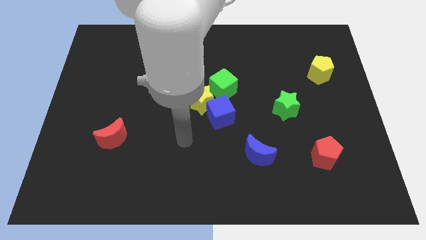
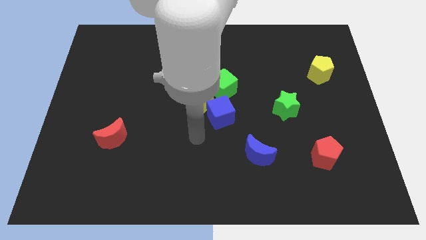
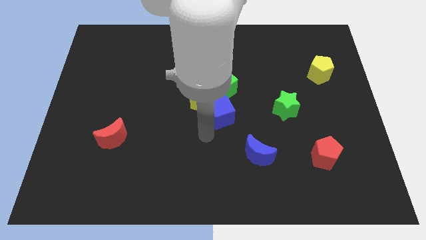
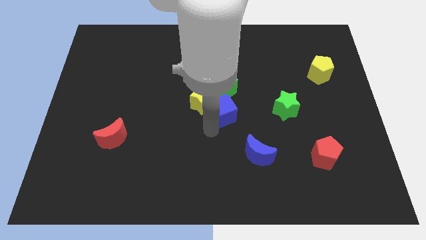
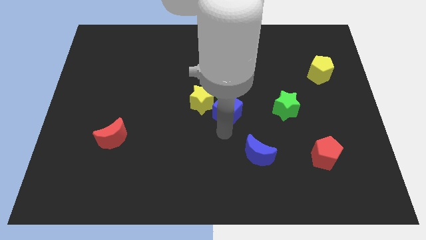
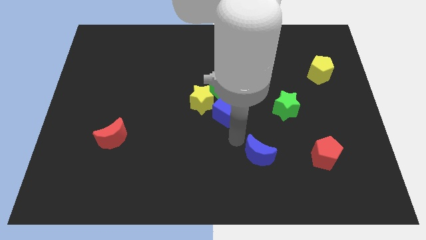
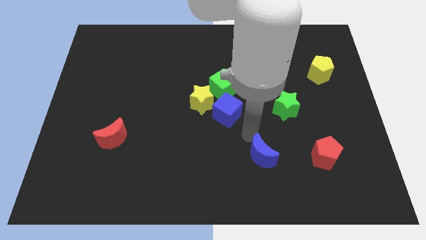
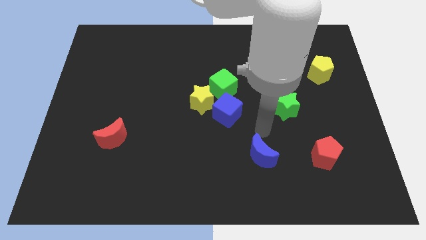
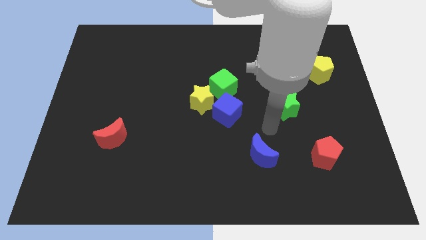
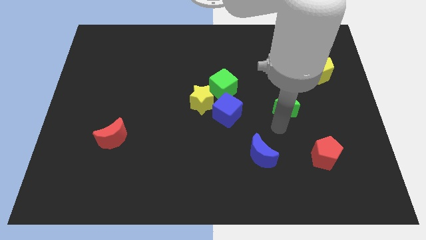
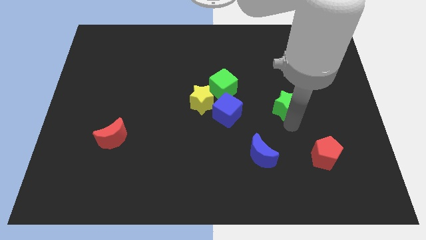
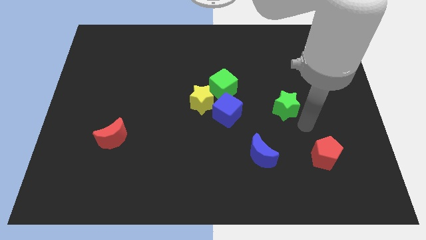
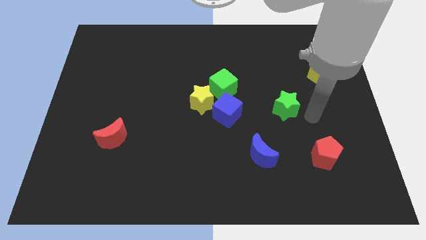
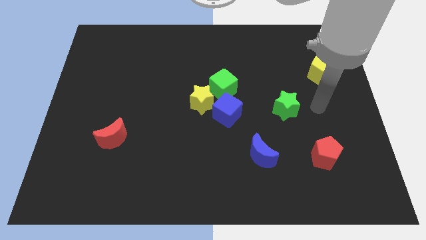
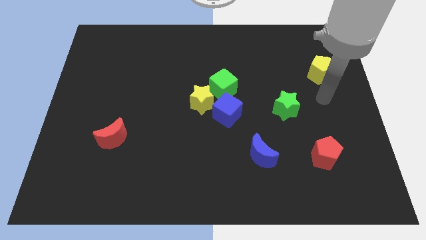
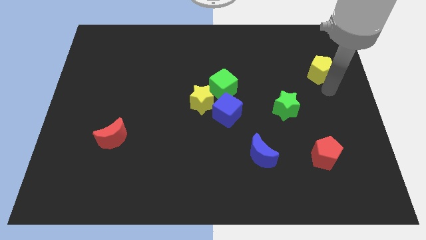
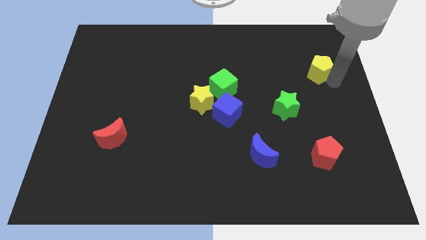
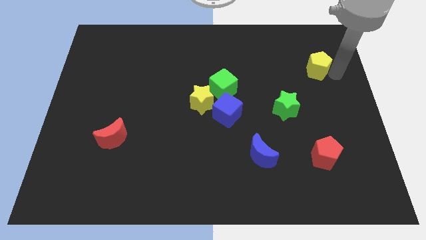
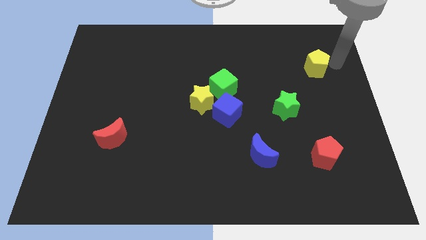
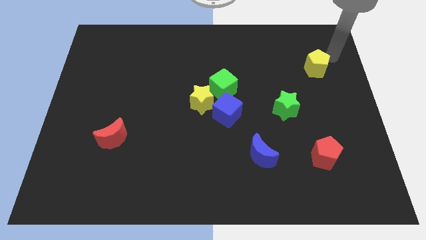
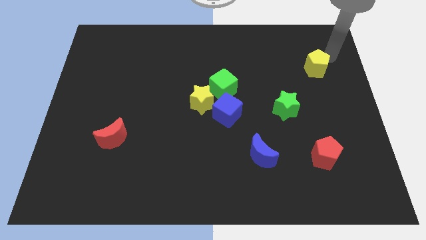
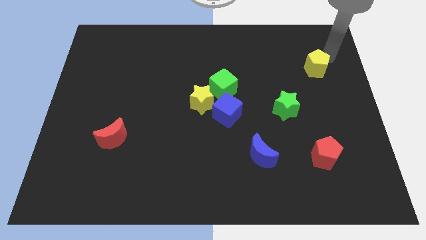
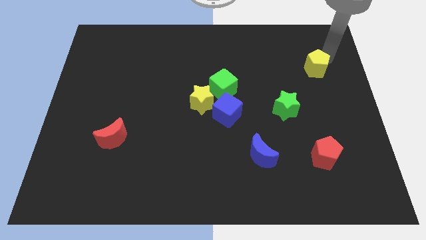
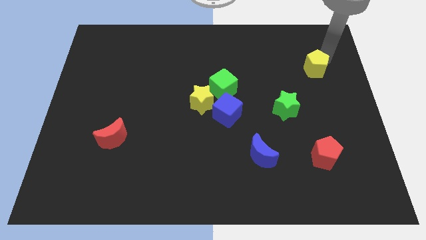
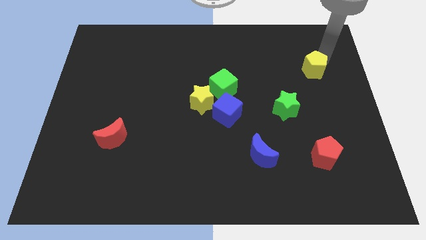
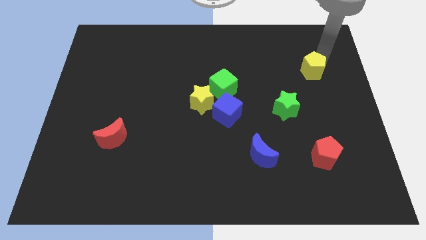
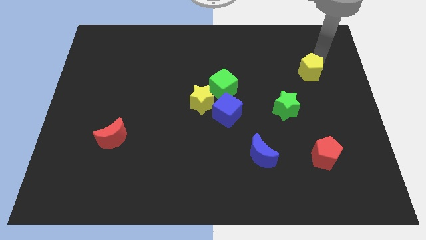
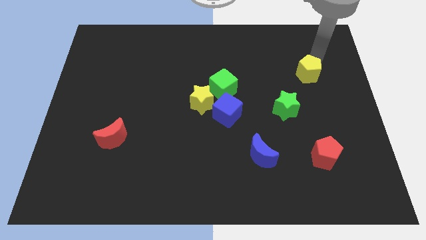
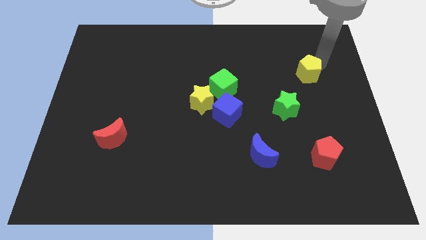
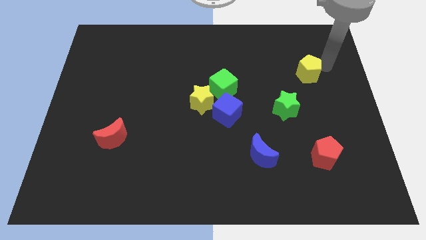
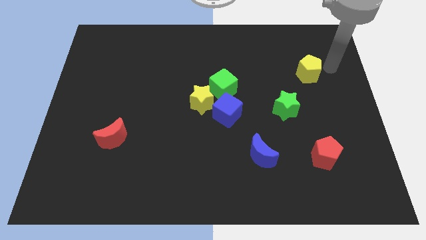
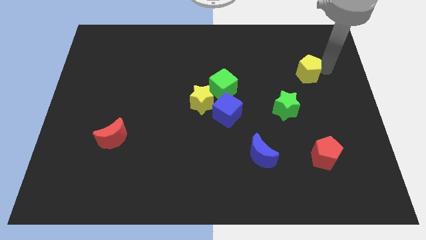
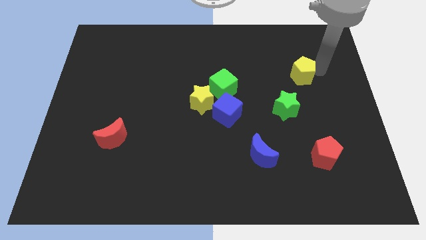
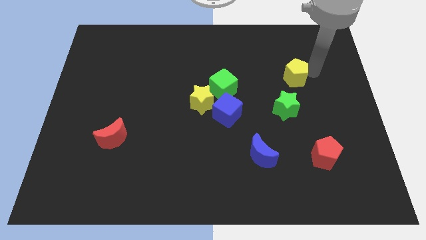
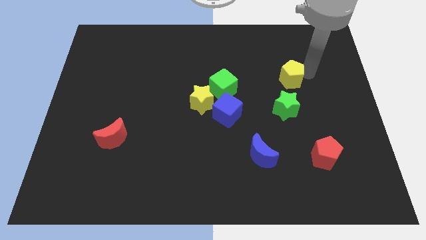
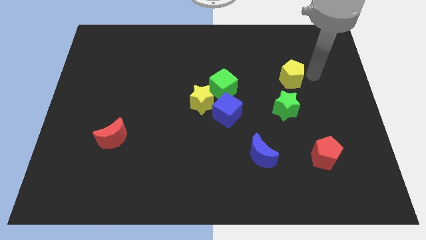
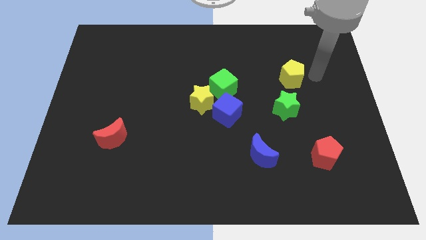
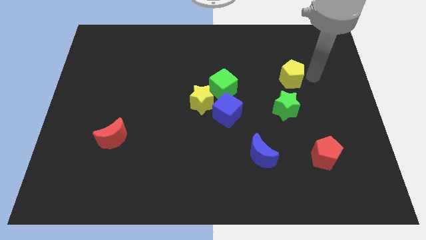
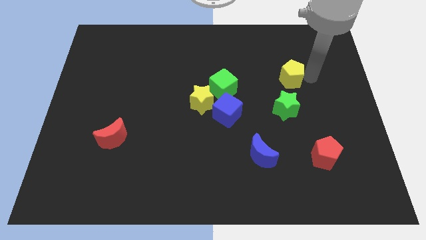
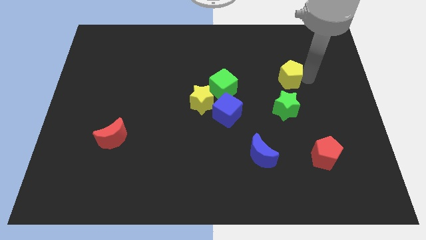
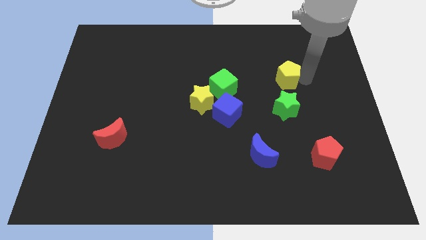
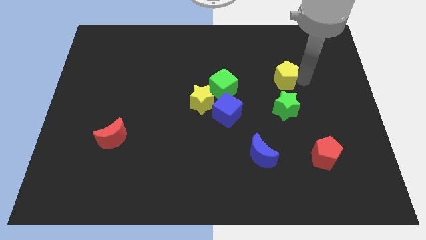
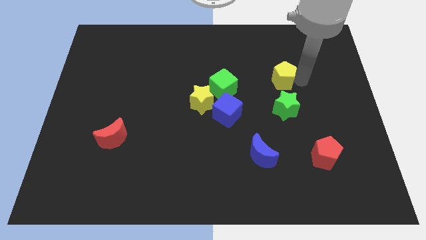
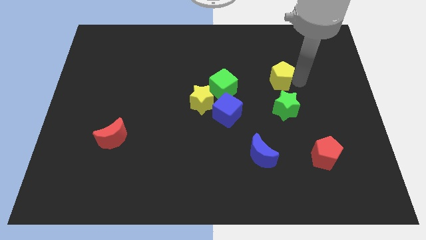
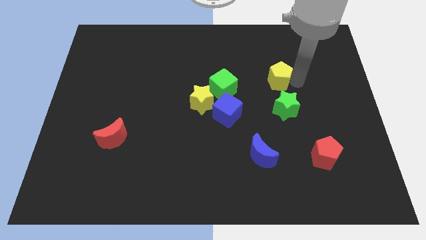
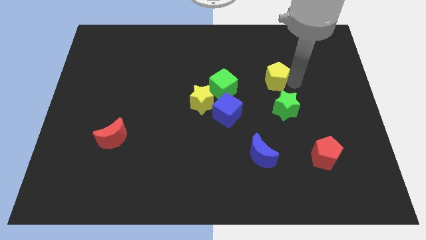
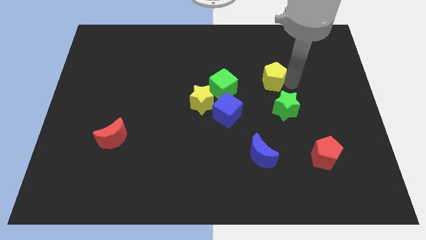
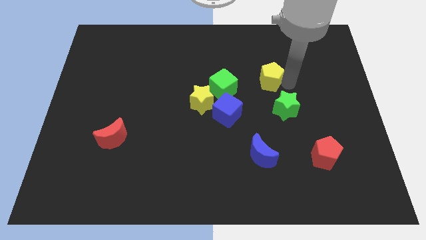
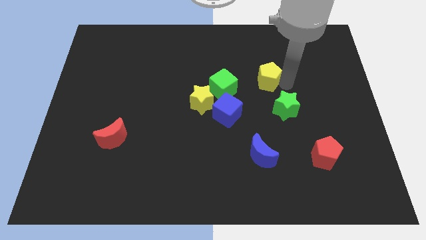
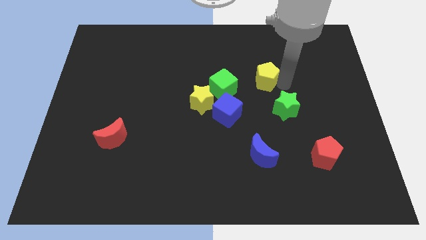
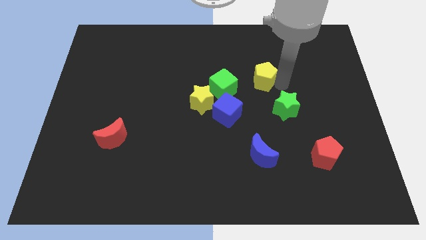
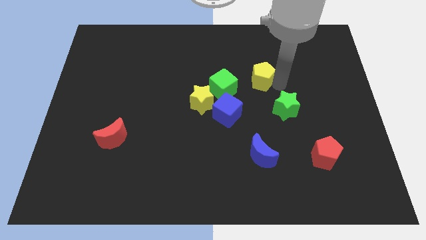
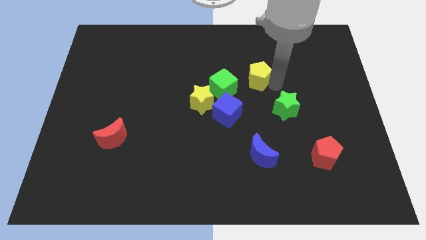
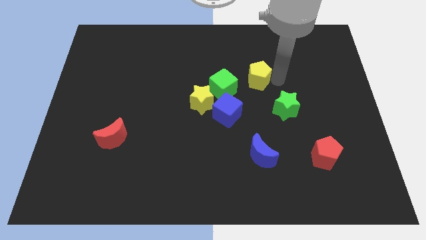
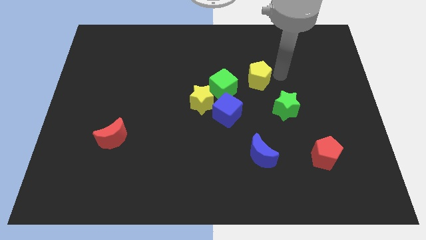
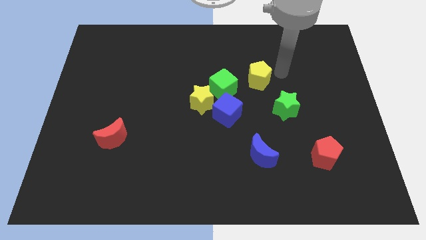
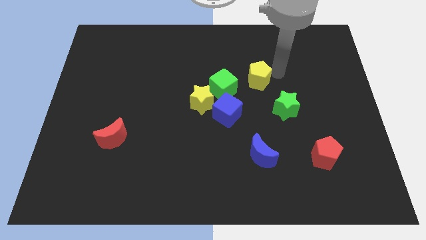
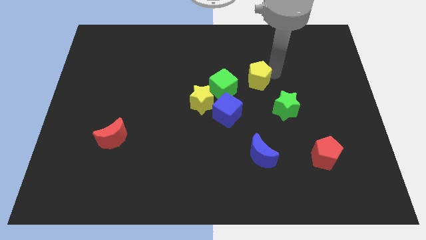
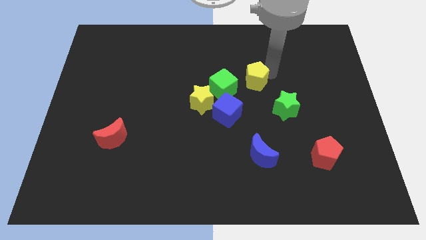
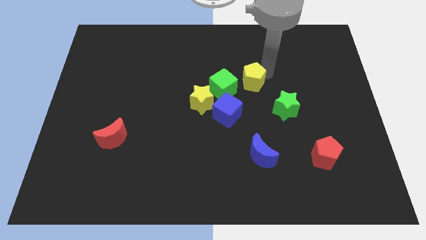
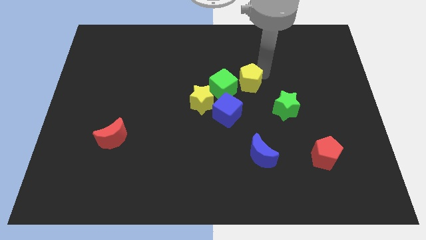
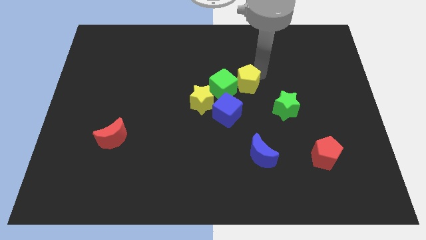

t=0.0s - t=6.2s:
move the yellow pentagon close to the green cube

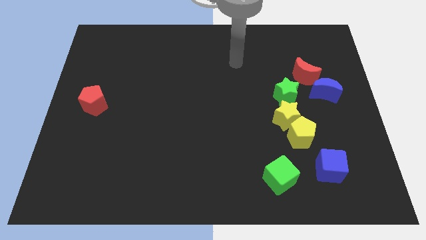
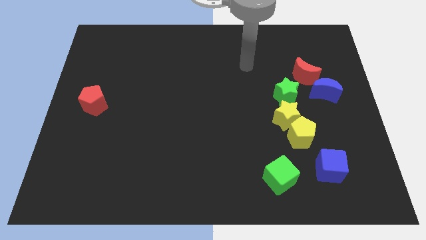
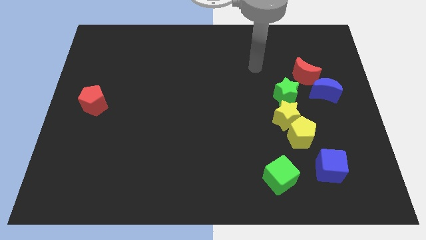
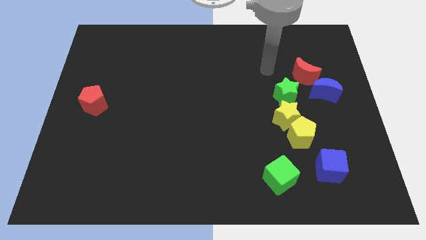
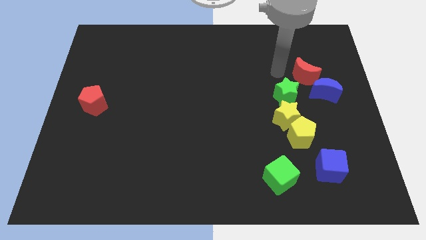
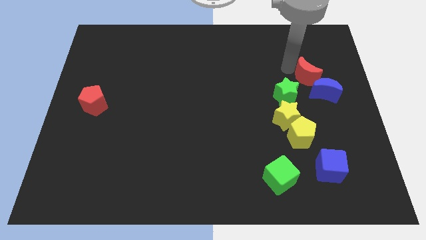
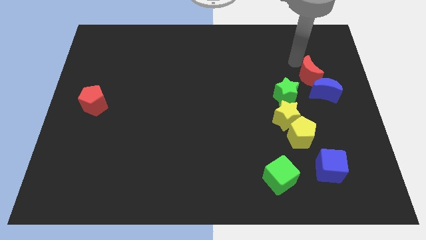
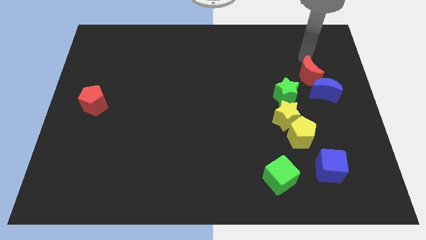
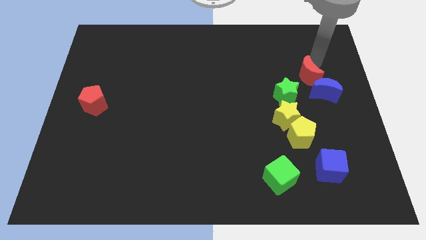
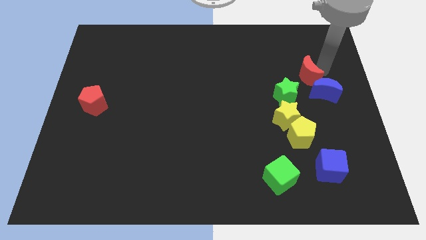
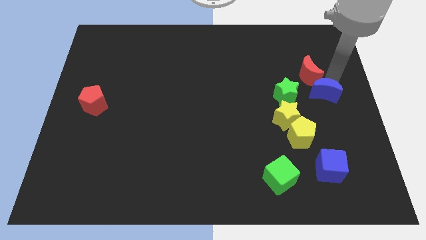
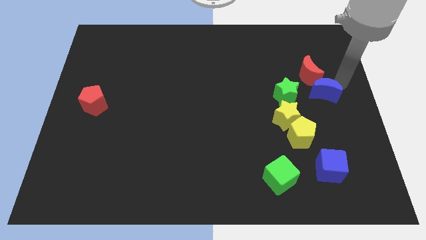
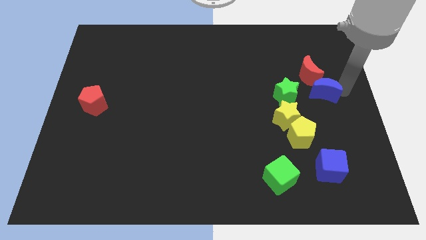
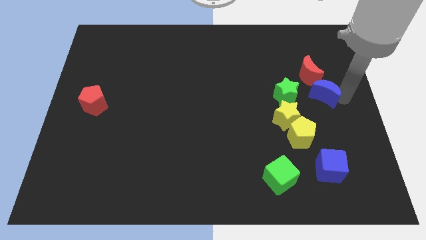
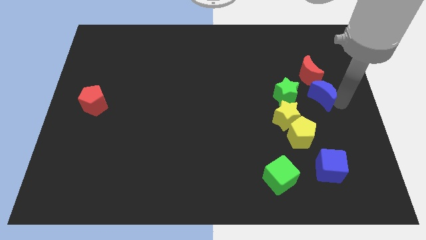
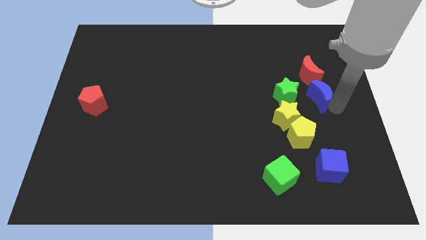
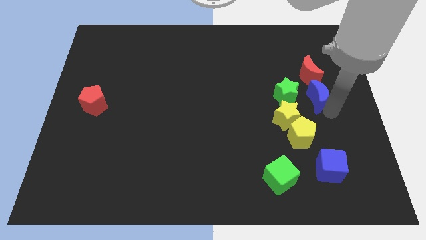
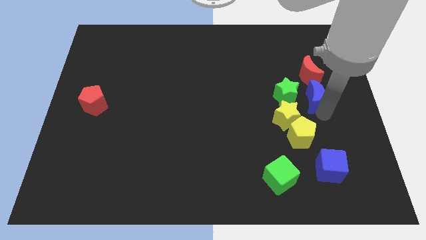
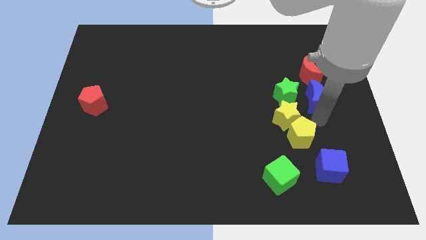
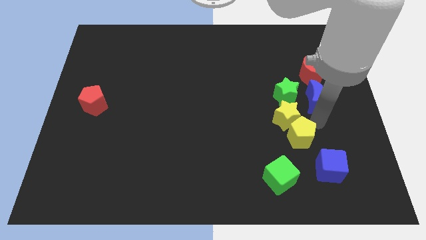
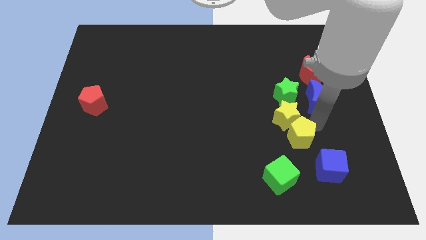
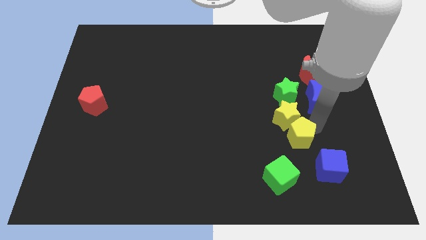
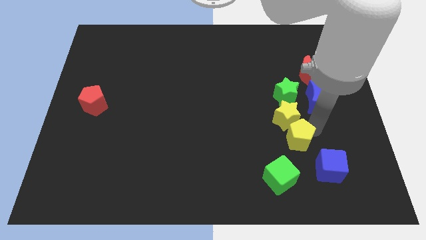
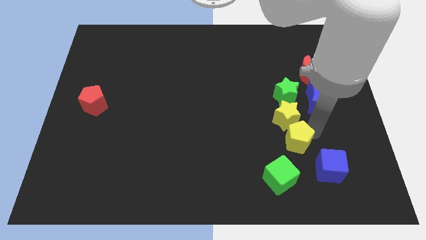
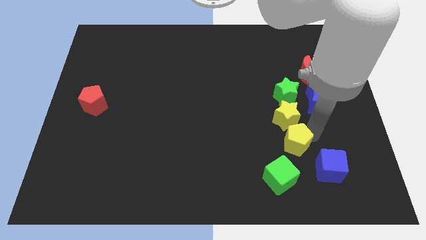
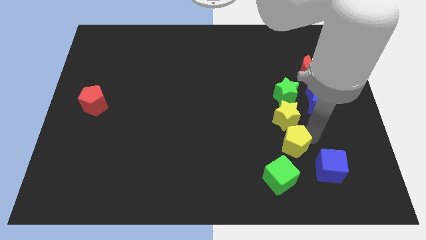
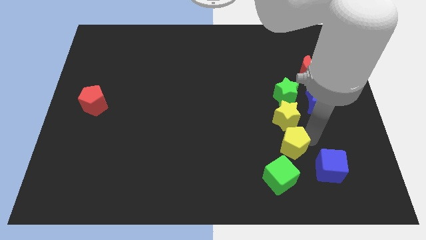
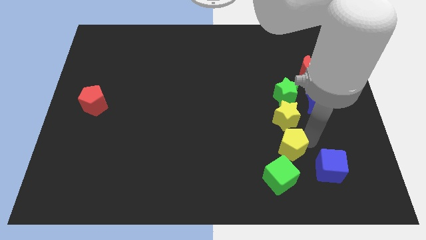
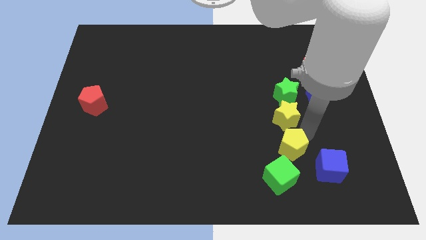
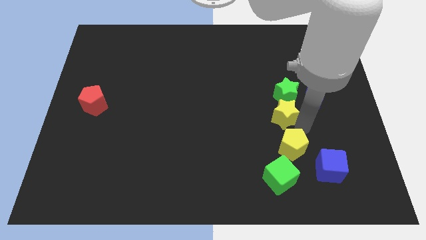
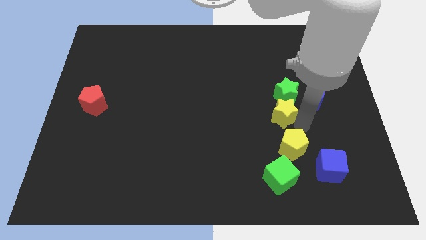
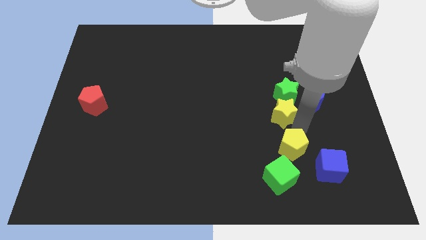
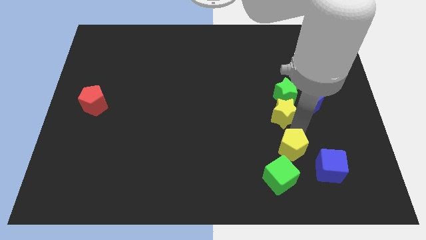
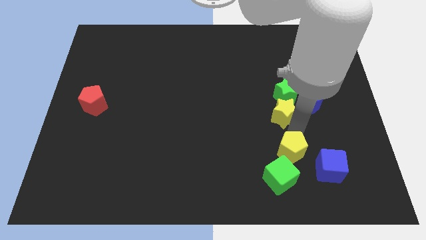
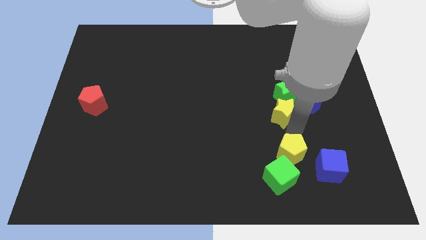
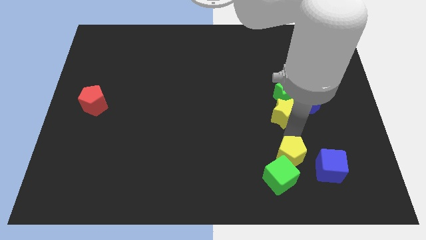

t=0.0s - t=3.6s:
push the yellow pentagon to the green cube
